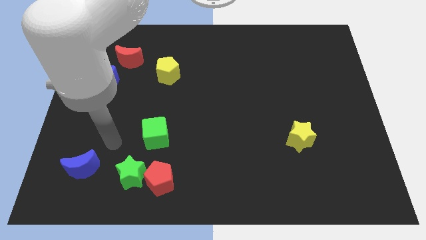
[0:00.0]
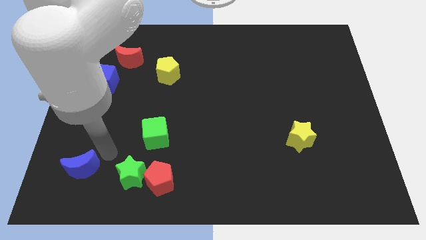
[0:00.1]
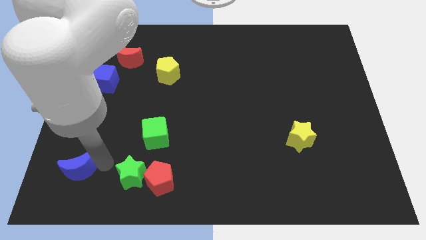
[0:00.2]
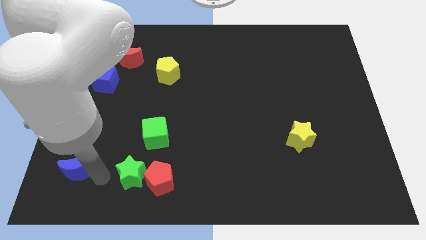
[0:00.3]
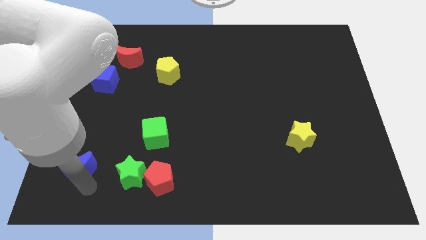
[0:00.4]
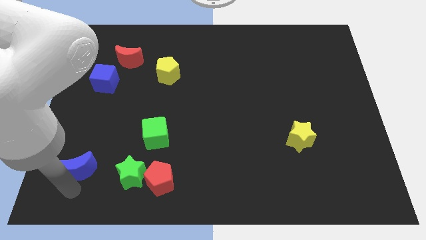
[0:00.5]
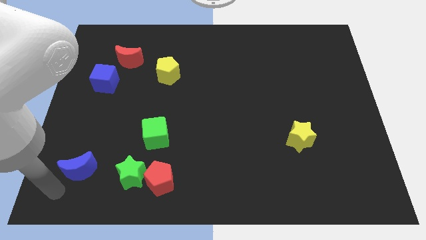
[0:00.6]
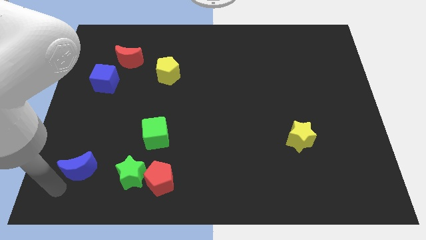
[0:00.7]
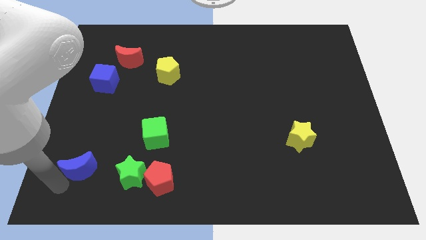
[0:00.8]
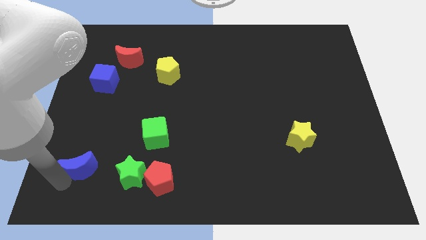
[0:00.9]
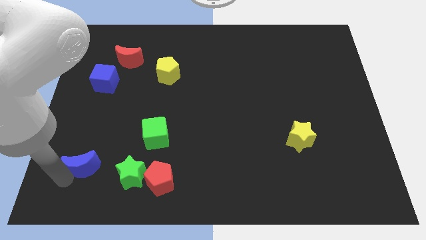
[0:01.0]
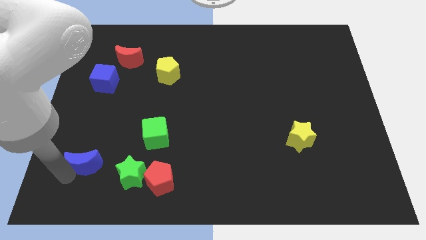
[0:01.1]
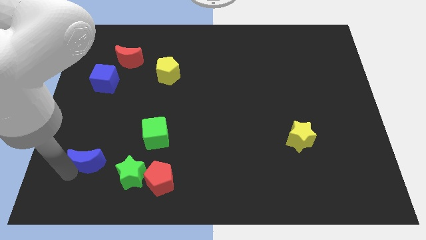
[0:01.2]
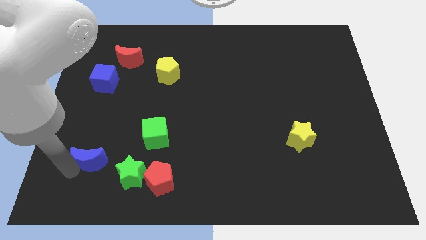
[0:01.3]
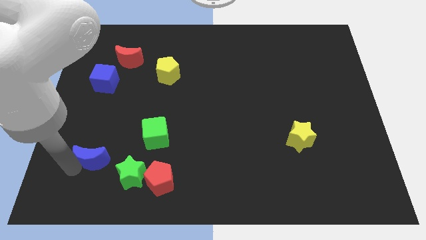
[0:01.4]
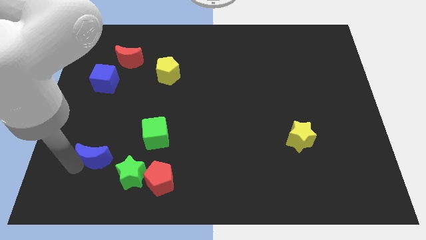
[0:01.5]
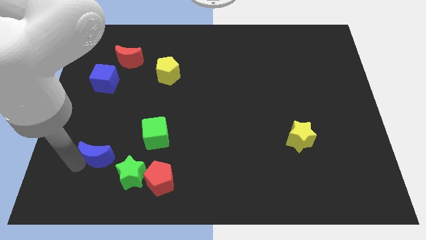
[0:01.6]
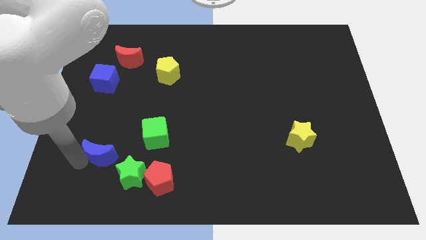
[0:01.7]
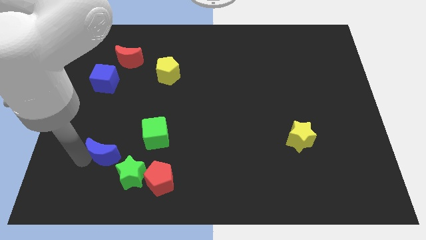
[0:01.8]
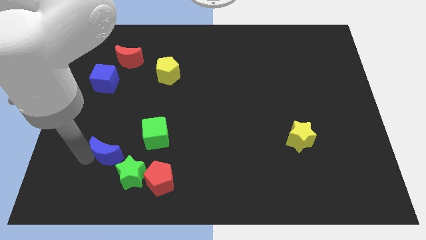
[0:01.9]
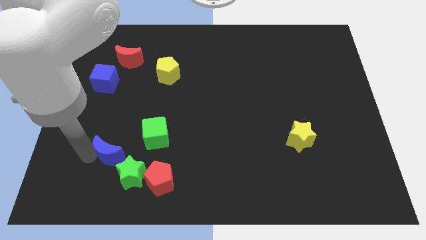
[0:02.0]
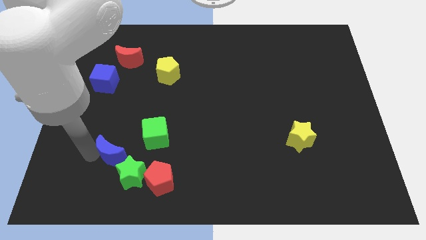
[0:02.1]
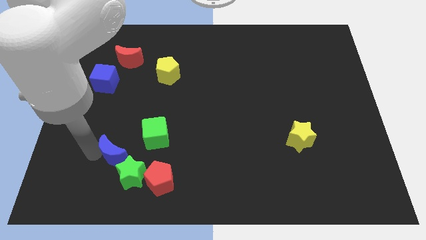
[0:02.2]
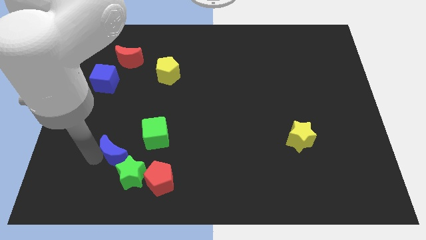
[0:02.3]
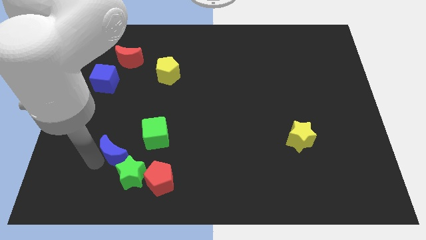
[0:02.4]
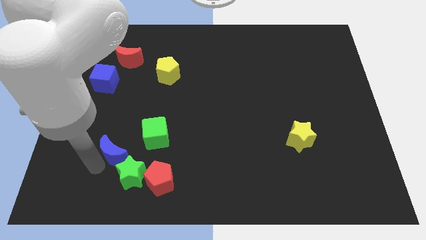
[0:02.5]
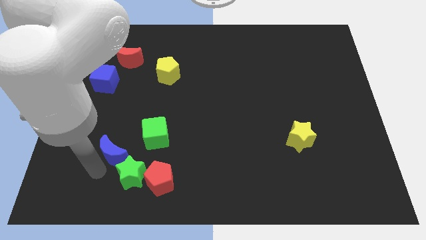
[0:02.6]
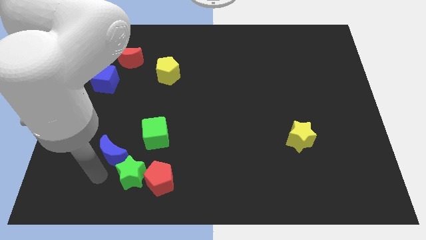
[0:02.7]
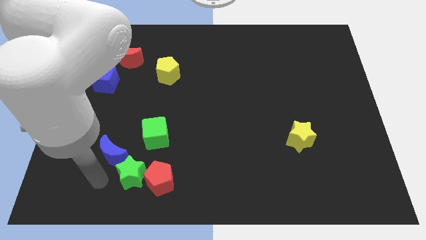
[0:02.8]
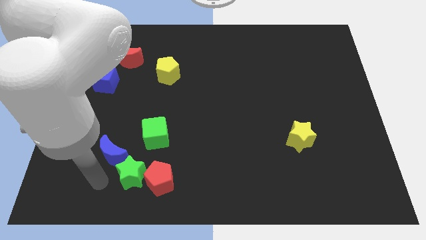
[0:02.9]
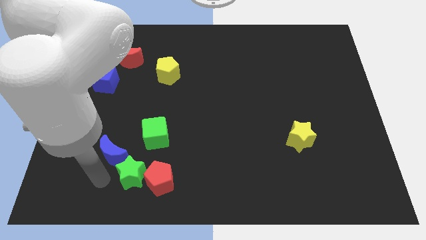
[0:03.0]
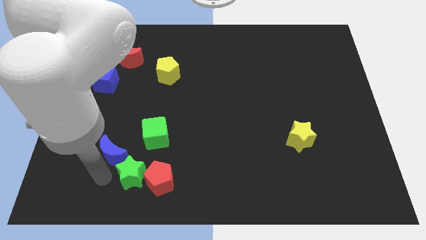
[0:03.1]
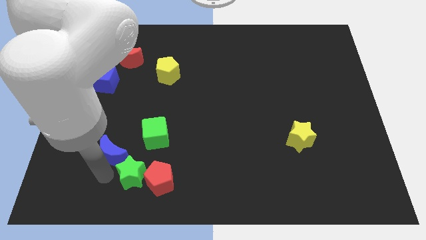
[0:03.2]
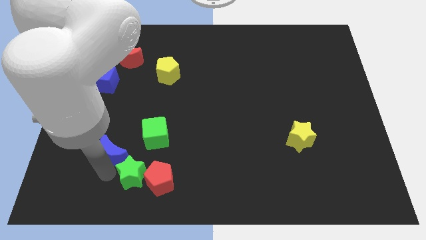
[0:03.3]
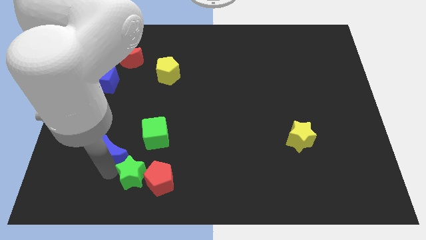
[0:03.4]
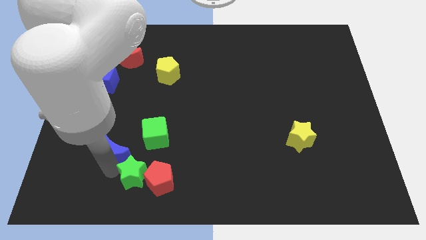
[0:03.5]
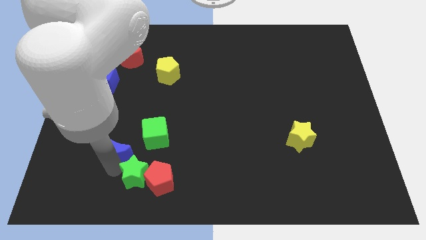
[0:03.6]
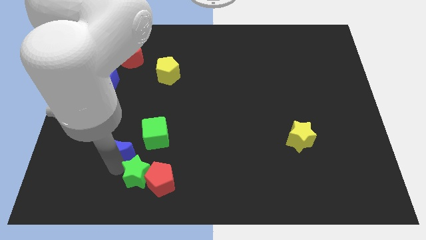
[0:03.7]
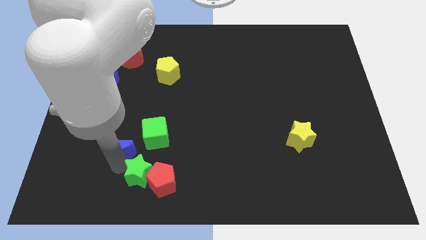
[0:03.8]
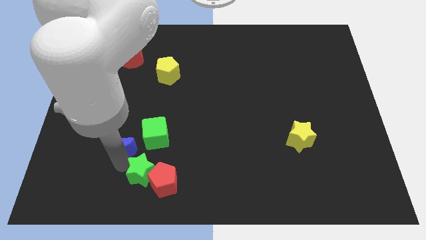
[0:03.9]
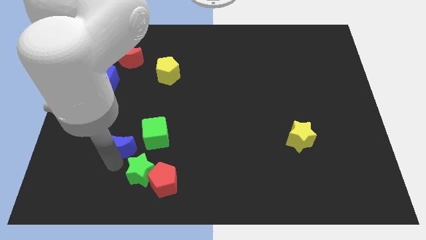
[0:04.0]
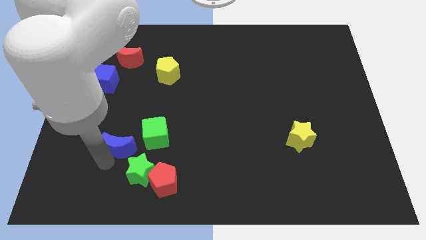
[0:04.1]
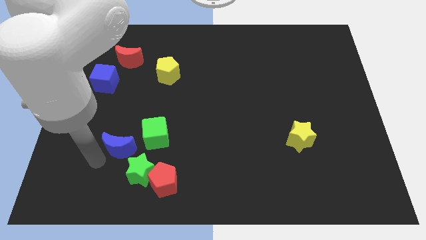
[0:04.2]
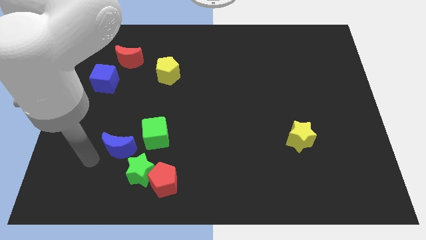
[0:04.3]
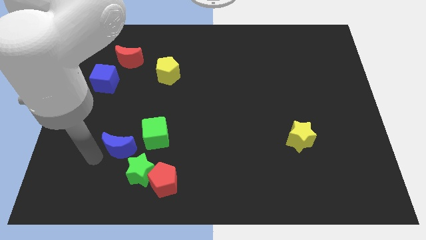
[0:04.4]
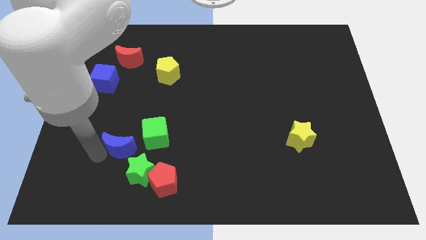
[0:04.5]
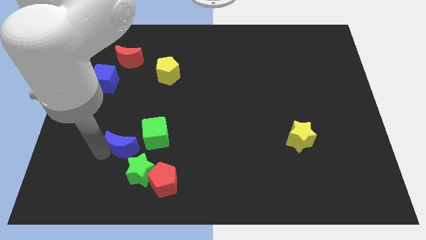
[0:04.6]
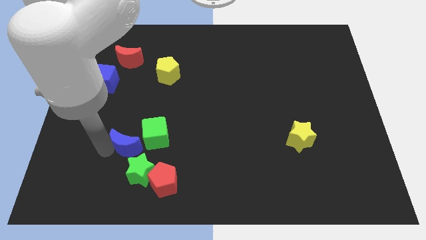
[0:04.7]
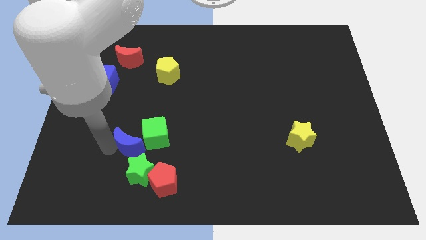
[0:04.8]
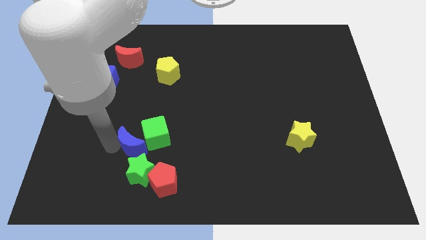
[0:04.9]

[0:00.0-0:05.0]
push the blue moon towards the green cube

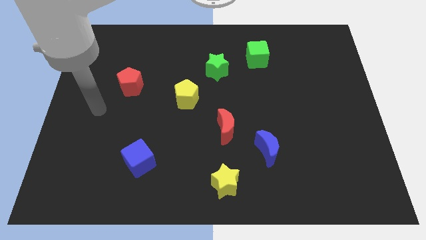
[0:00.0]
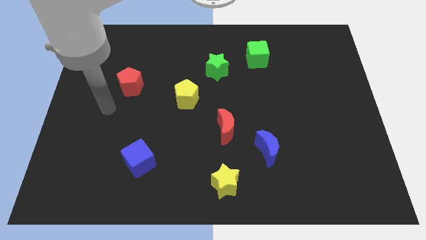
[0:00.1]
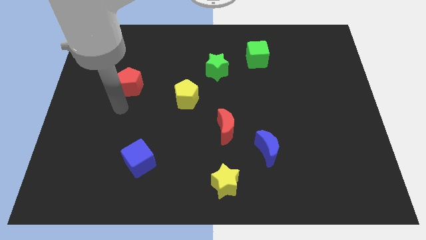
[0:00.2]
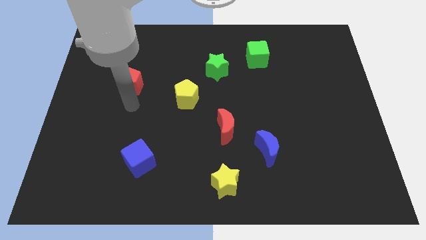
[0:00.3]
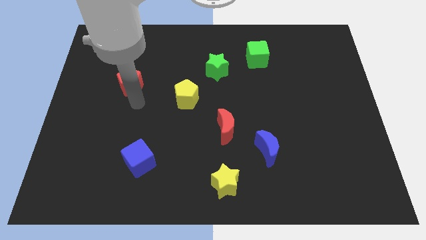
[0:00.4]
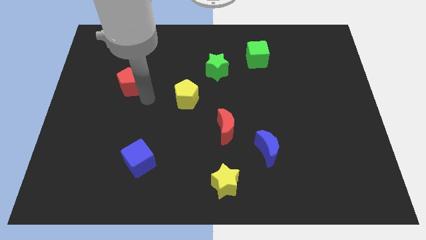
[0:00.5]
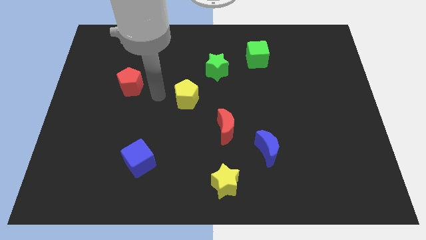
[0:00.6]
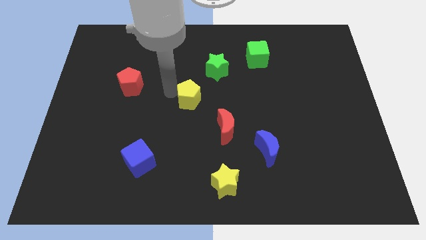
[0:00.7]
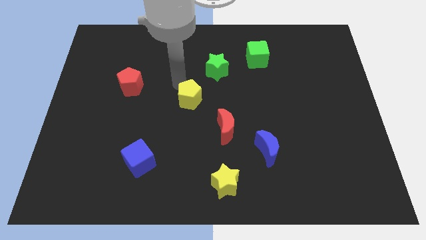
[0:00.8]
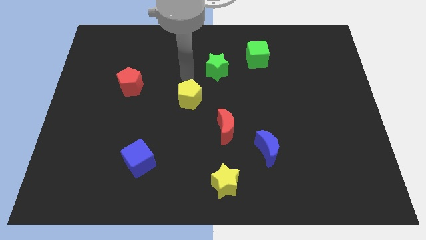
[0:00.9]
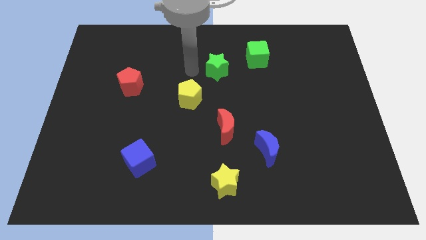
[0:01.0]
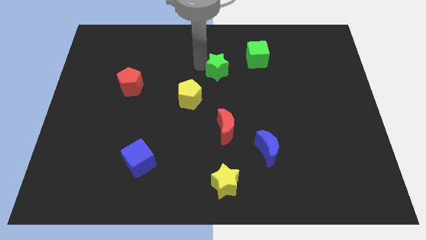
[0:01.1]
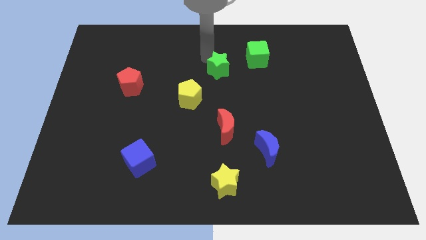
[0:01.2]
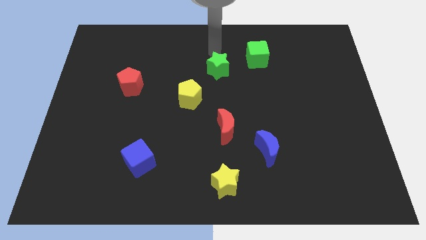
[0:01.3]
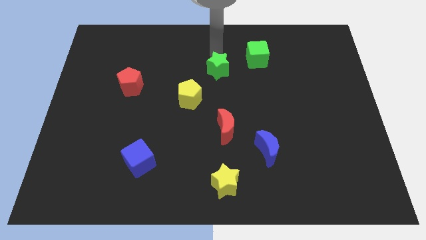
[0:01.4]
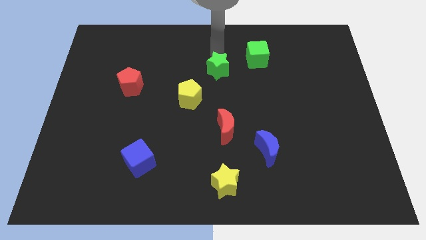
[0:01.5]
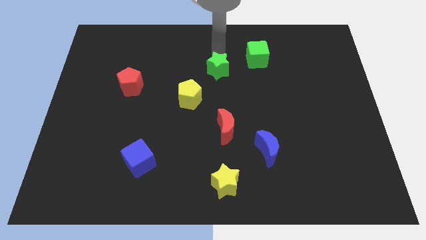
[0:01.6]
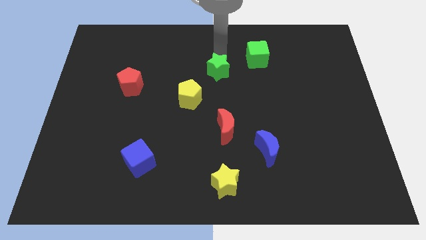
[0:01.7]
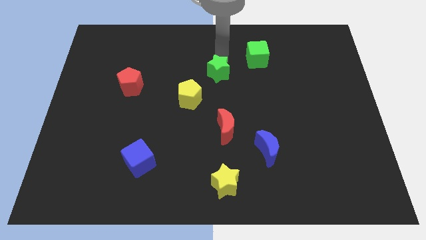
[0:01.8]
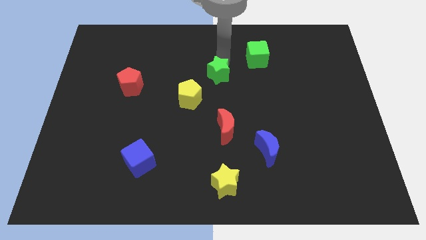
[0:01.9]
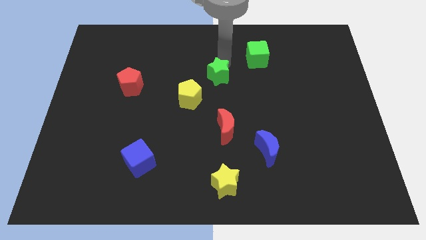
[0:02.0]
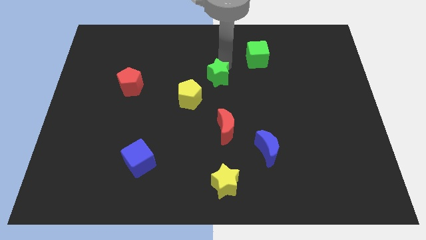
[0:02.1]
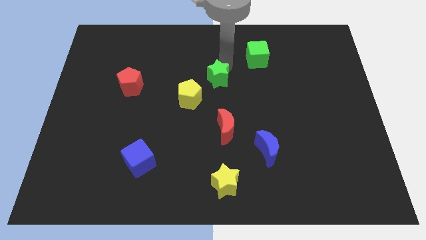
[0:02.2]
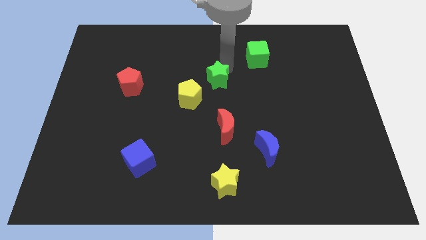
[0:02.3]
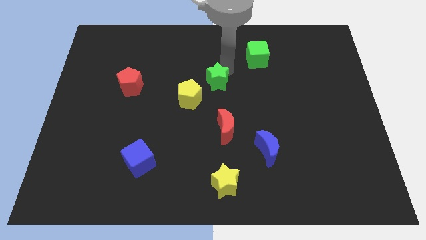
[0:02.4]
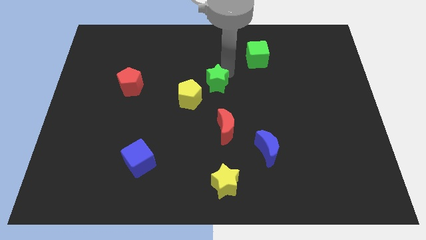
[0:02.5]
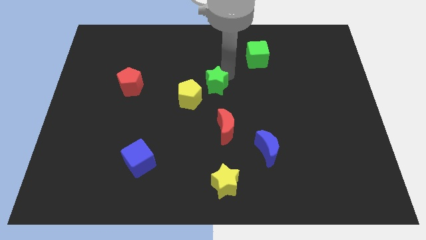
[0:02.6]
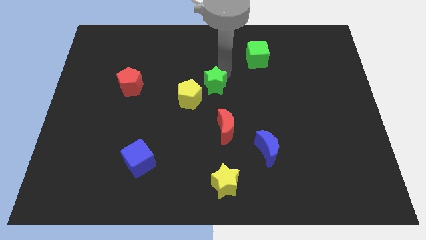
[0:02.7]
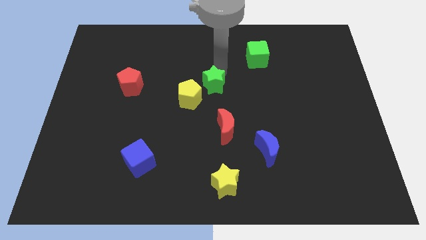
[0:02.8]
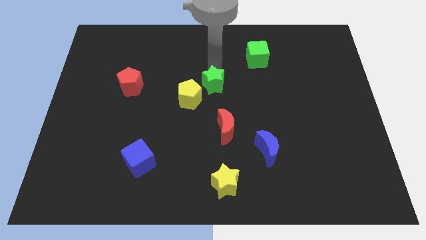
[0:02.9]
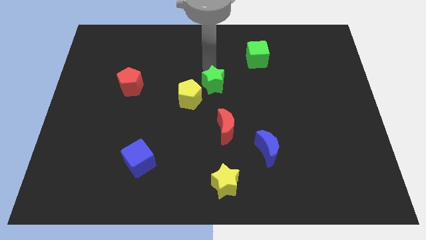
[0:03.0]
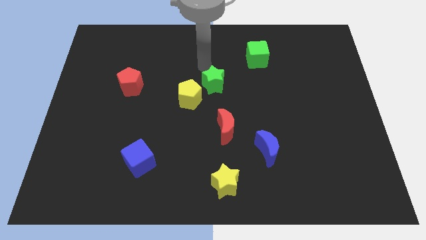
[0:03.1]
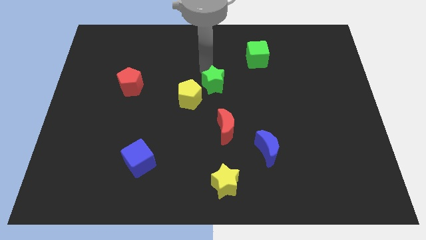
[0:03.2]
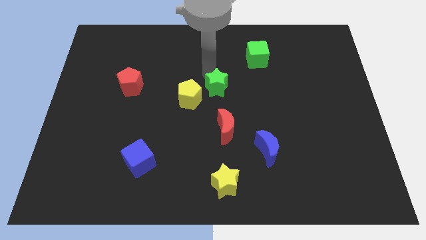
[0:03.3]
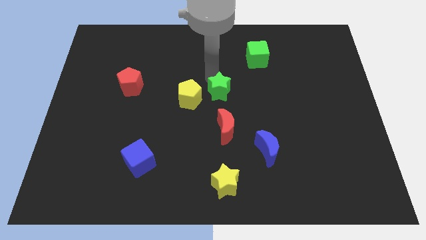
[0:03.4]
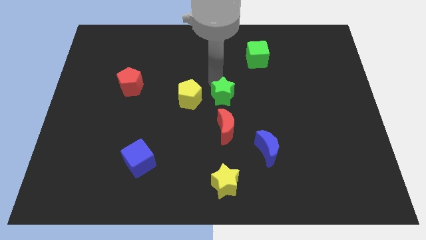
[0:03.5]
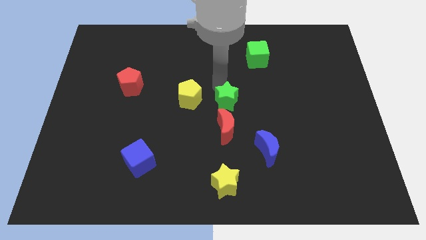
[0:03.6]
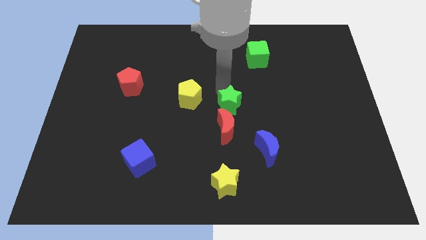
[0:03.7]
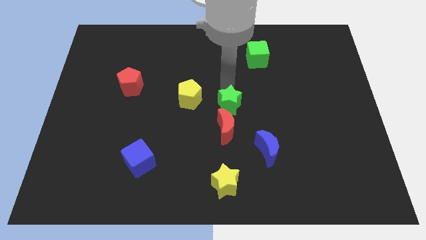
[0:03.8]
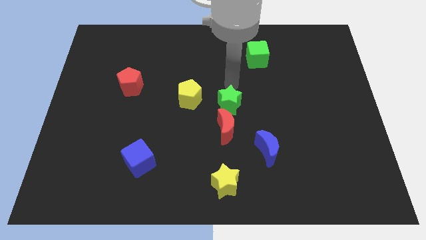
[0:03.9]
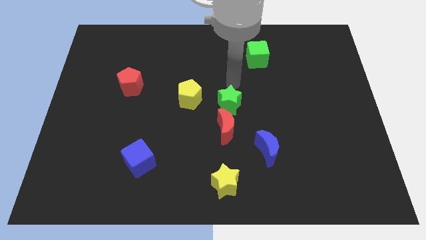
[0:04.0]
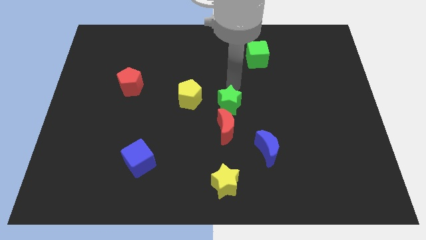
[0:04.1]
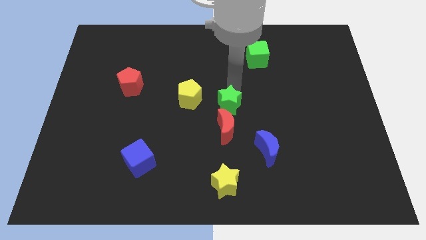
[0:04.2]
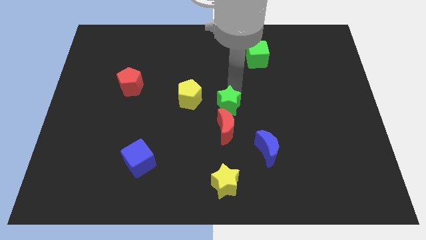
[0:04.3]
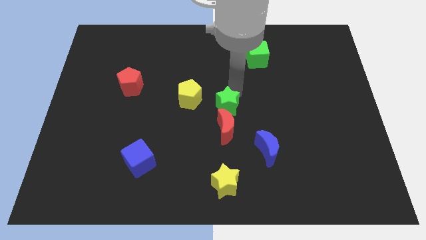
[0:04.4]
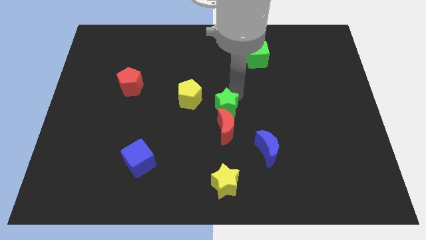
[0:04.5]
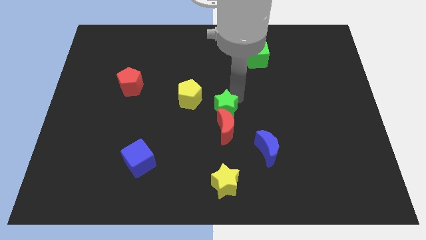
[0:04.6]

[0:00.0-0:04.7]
move the green star close to the red moon
